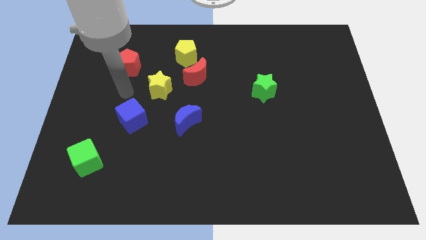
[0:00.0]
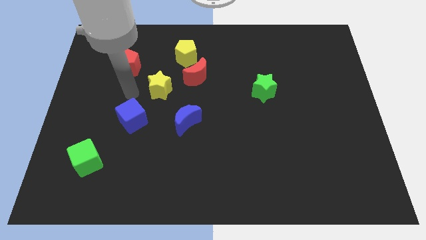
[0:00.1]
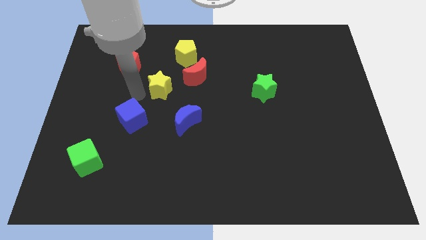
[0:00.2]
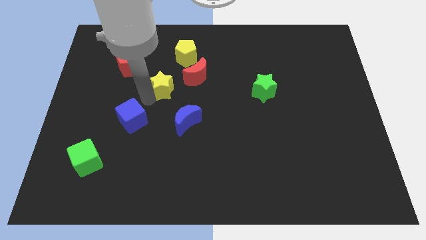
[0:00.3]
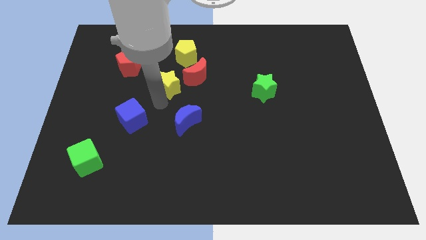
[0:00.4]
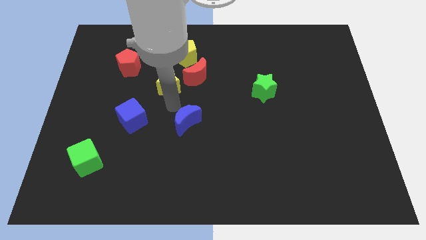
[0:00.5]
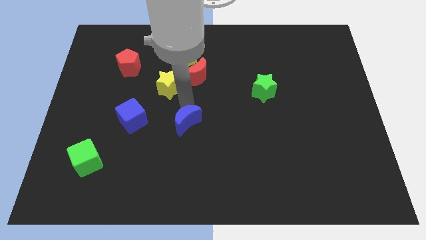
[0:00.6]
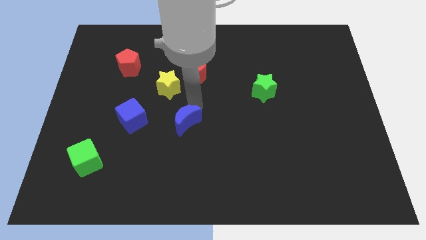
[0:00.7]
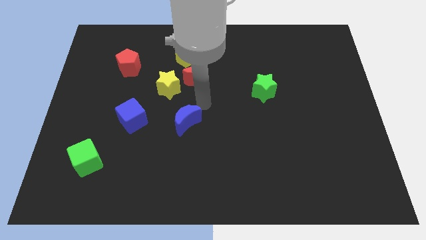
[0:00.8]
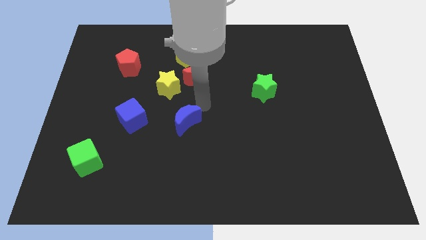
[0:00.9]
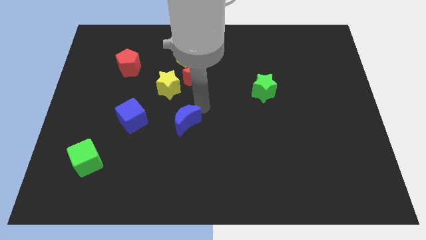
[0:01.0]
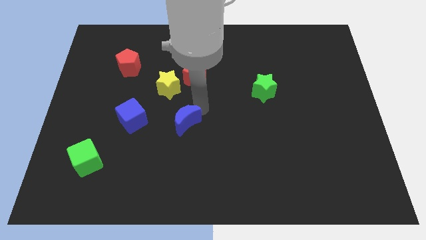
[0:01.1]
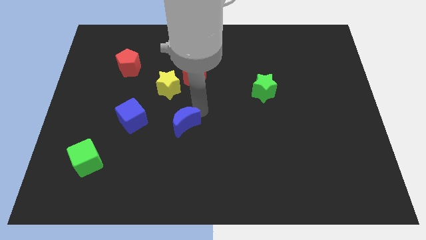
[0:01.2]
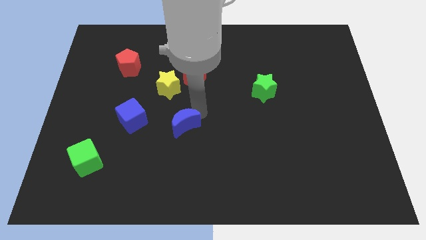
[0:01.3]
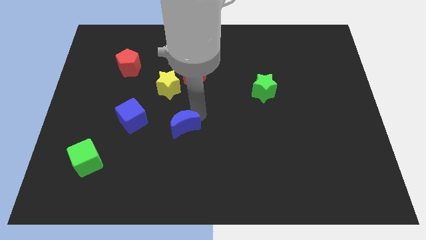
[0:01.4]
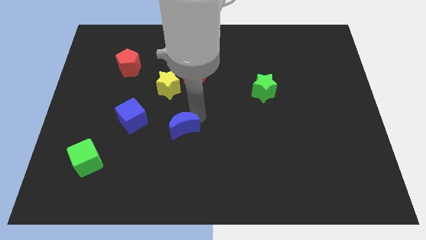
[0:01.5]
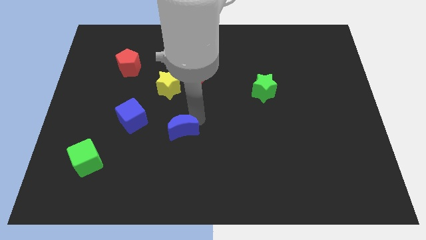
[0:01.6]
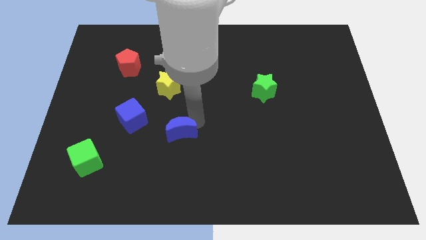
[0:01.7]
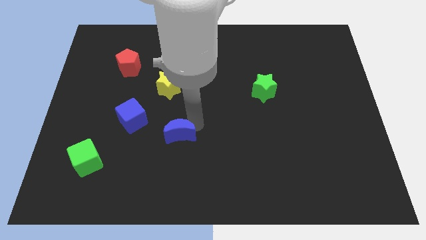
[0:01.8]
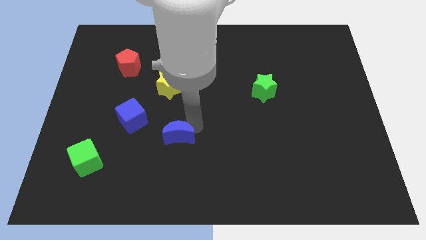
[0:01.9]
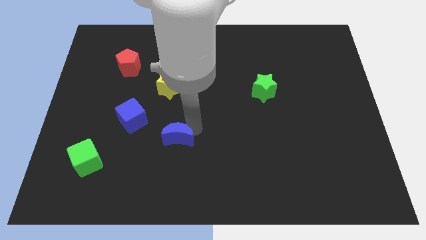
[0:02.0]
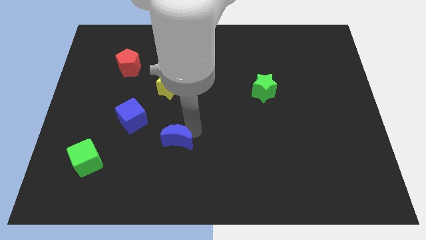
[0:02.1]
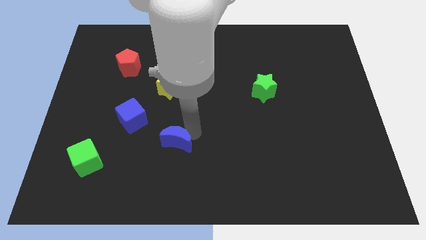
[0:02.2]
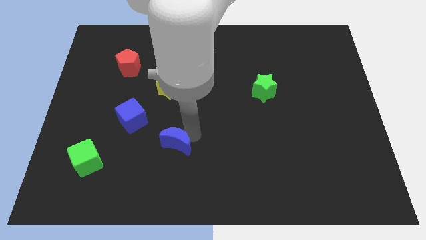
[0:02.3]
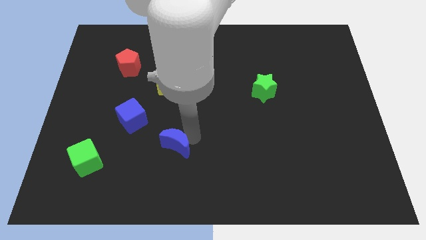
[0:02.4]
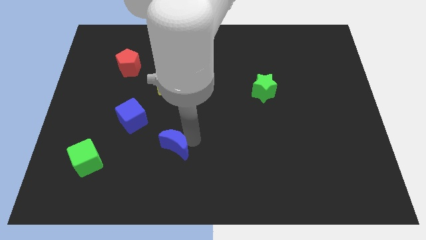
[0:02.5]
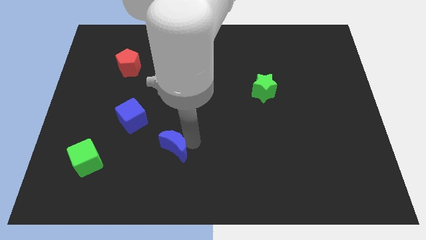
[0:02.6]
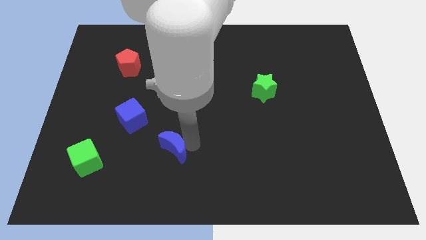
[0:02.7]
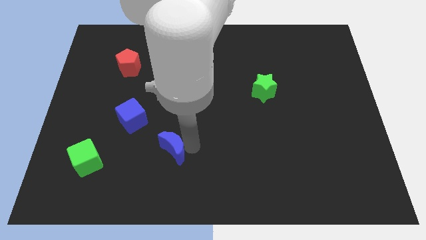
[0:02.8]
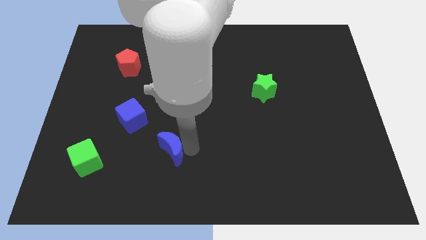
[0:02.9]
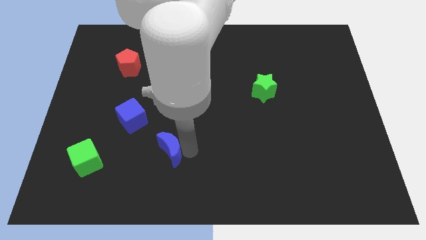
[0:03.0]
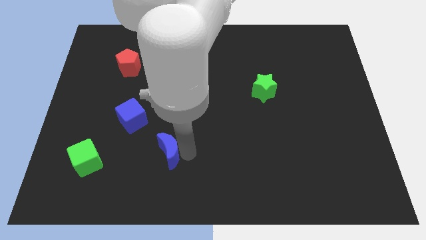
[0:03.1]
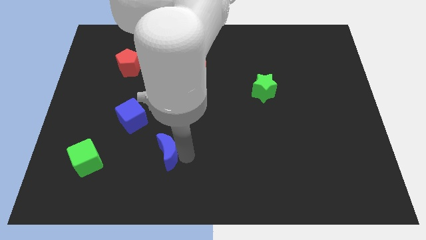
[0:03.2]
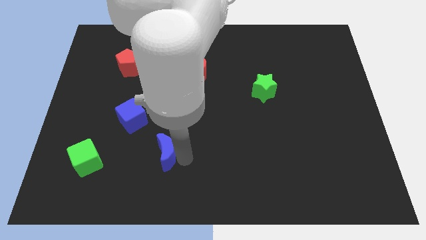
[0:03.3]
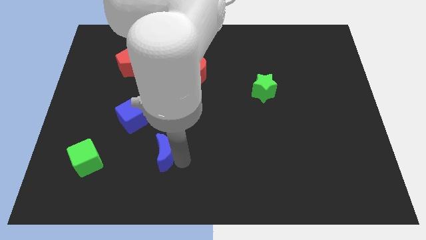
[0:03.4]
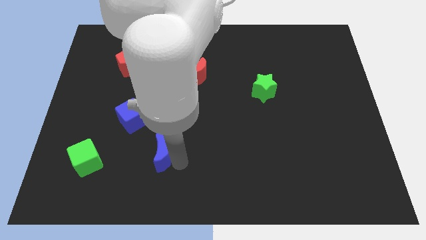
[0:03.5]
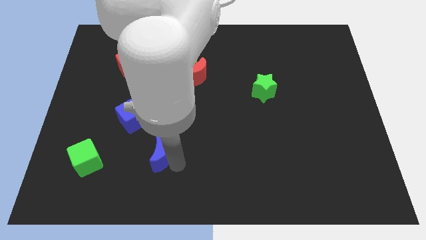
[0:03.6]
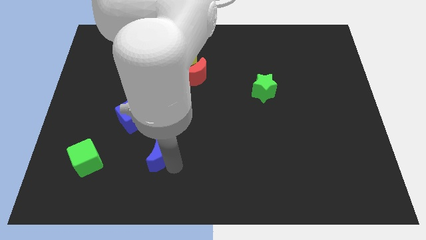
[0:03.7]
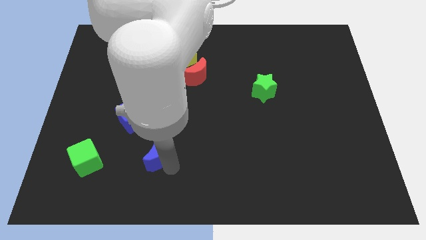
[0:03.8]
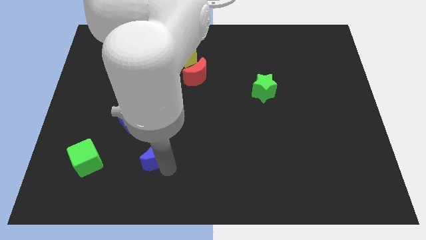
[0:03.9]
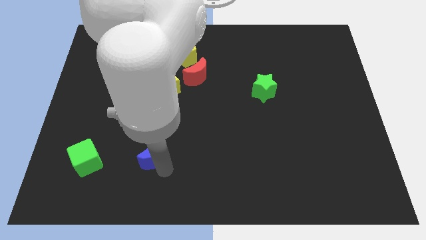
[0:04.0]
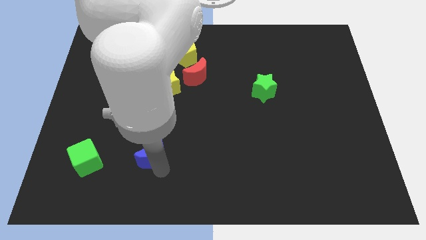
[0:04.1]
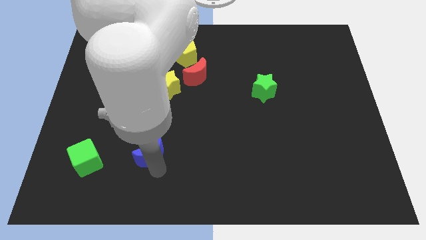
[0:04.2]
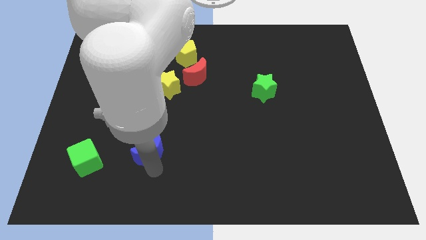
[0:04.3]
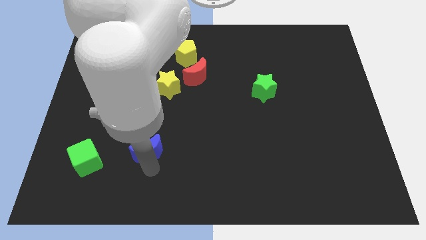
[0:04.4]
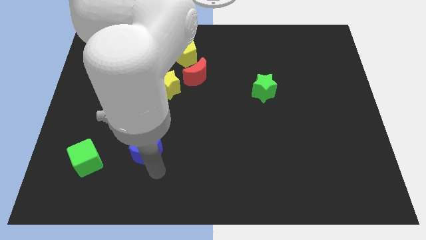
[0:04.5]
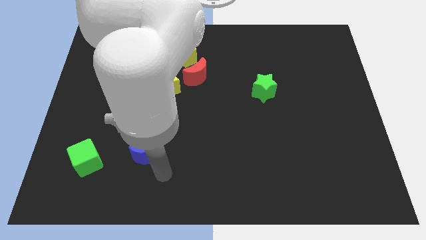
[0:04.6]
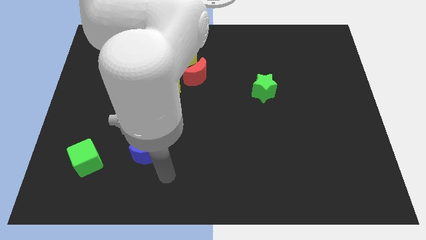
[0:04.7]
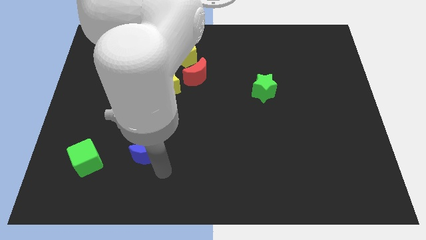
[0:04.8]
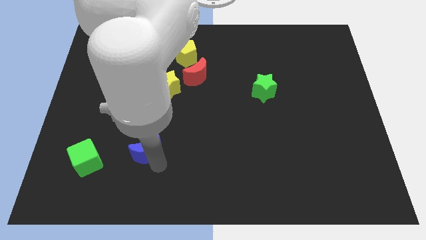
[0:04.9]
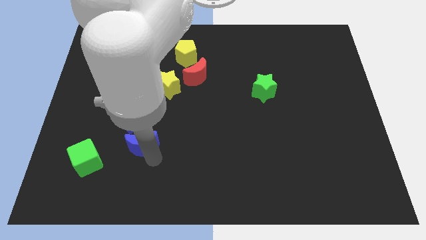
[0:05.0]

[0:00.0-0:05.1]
push the blue moon somewhat to the left

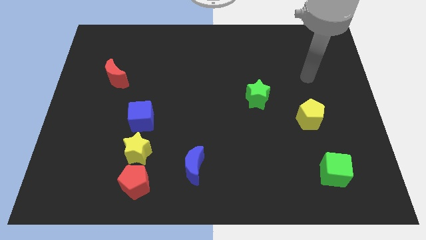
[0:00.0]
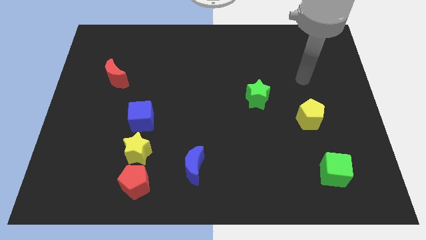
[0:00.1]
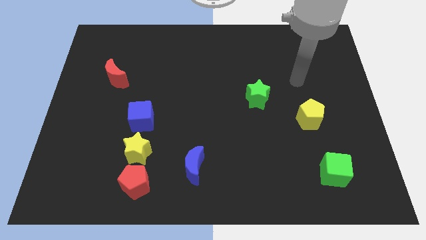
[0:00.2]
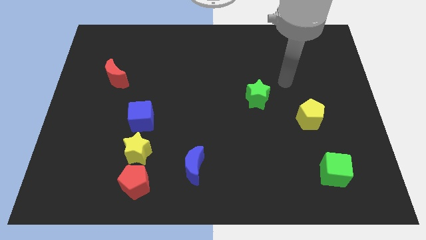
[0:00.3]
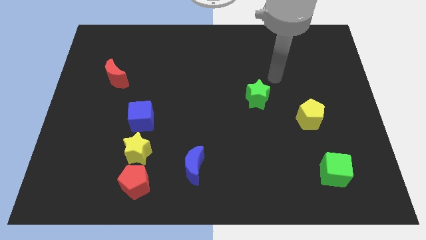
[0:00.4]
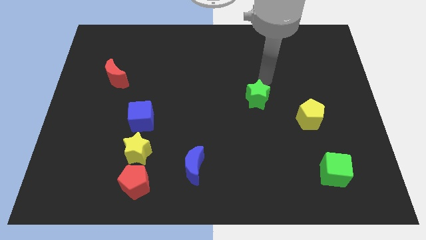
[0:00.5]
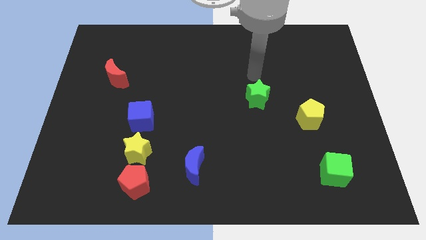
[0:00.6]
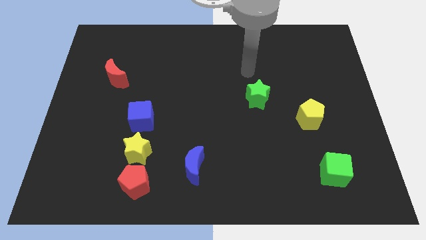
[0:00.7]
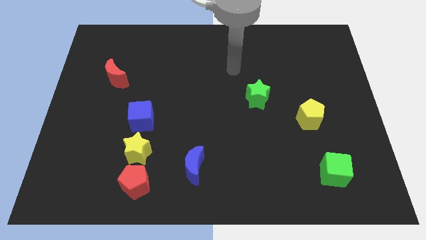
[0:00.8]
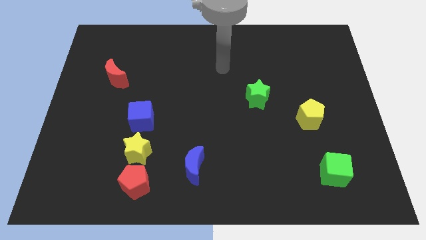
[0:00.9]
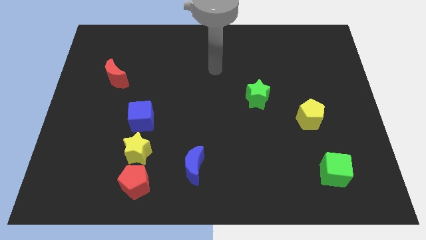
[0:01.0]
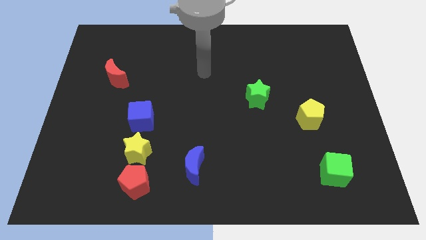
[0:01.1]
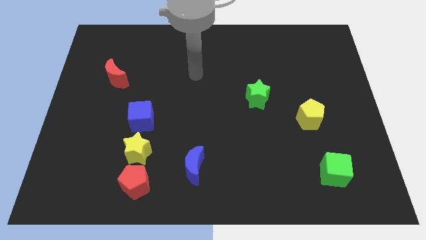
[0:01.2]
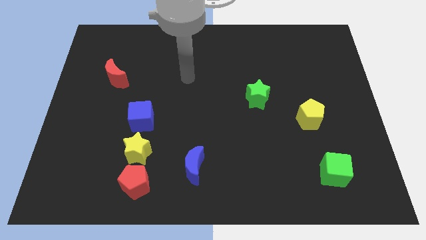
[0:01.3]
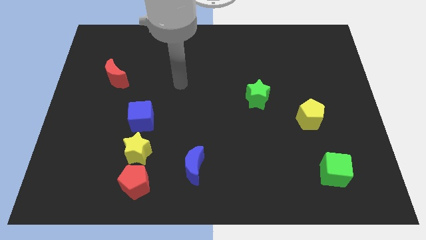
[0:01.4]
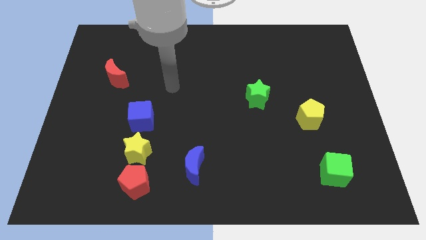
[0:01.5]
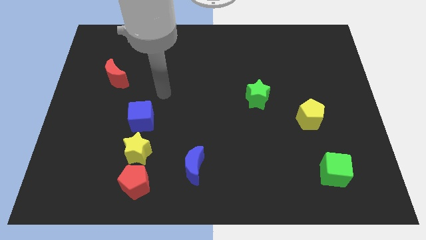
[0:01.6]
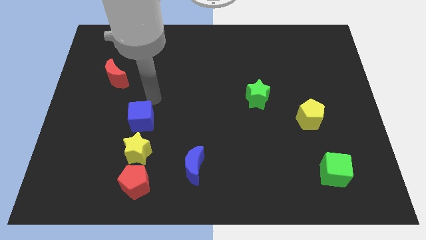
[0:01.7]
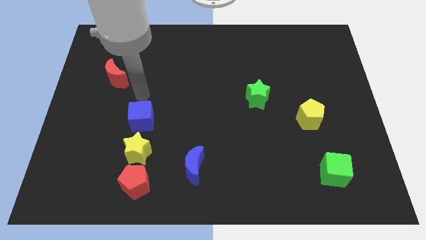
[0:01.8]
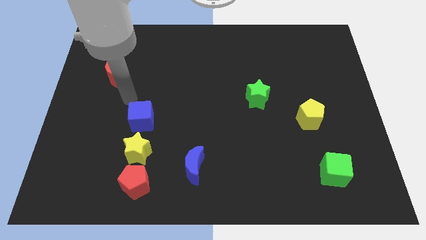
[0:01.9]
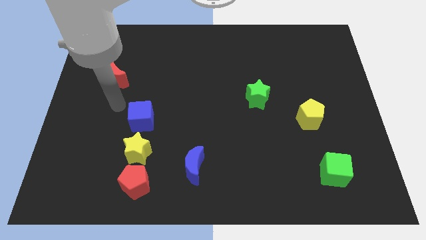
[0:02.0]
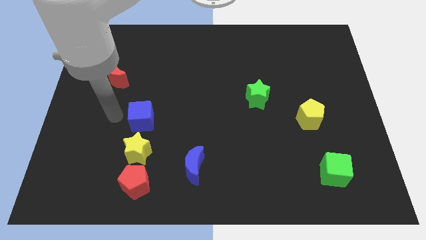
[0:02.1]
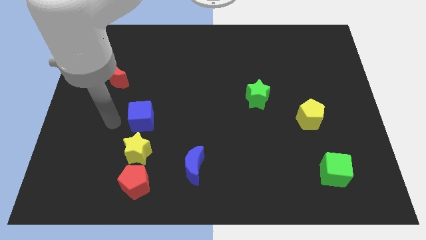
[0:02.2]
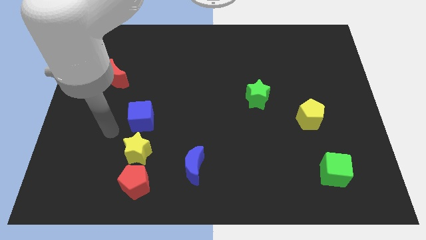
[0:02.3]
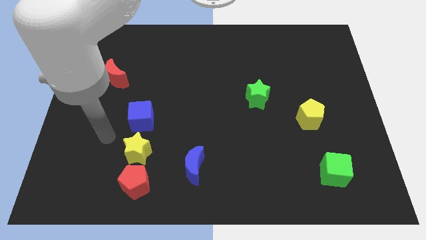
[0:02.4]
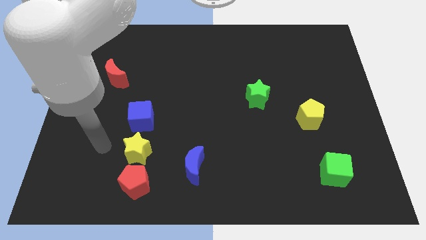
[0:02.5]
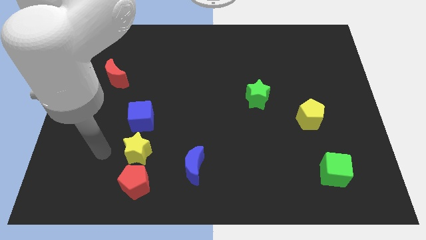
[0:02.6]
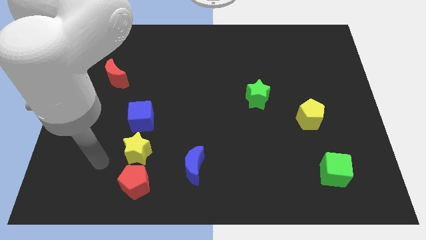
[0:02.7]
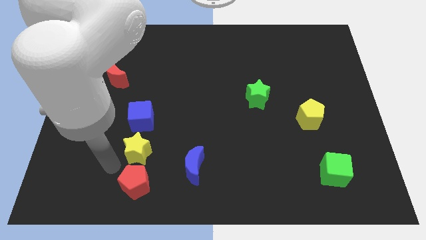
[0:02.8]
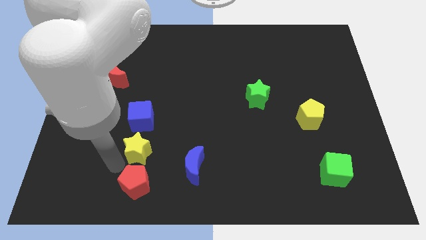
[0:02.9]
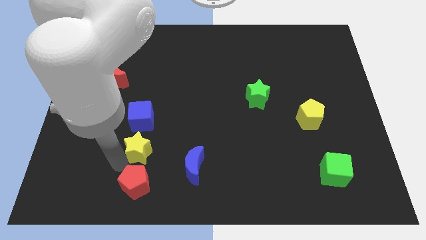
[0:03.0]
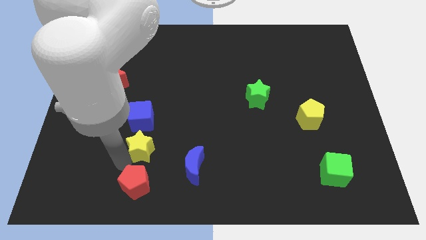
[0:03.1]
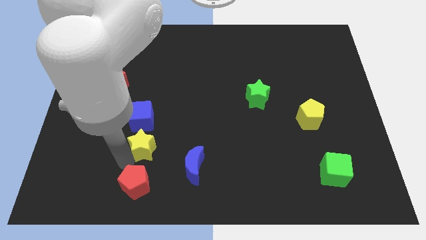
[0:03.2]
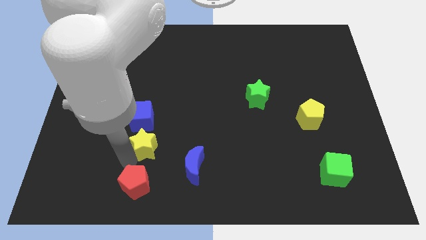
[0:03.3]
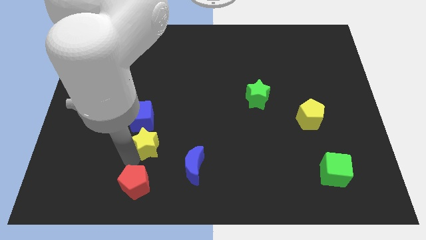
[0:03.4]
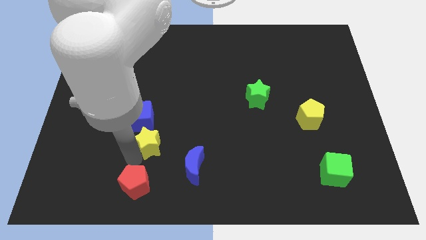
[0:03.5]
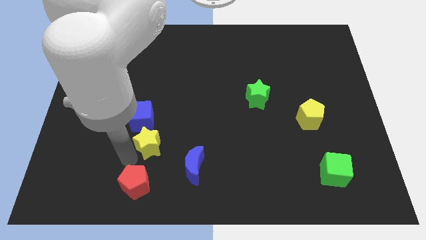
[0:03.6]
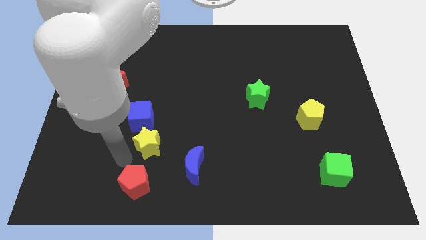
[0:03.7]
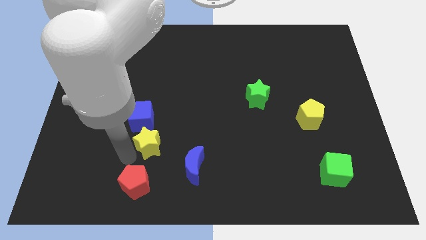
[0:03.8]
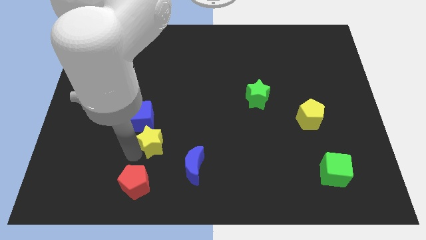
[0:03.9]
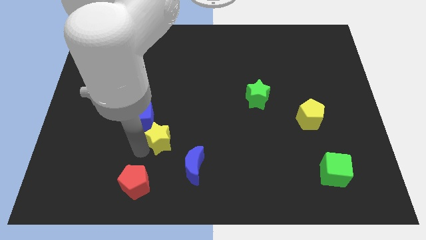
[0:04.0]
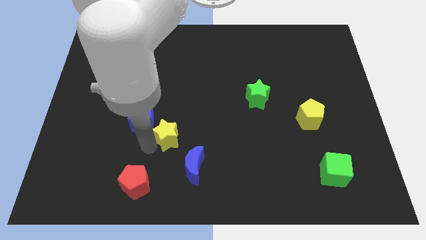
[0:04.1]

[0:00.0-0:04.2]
slightly move the yellow star upwards and to the right diagonally
